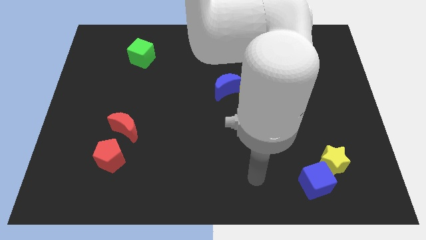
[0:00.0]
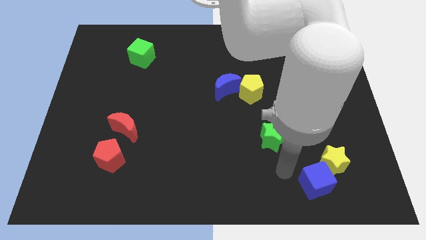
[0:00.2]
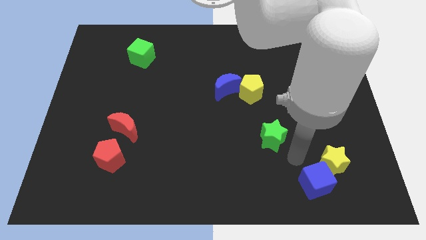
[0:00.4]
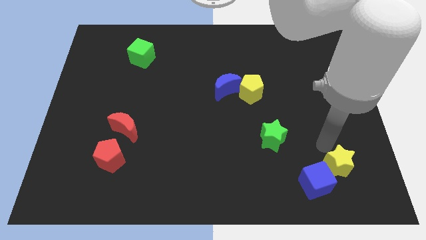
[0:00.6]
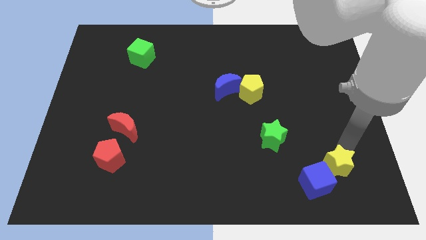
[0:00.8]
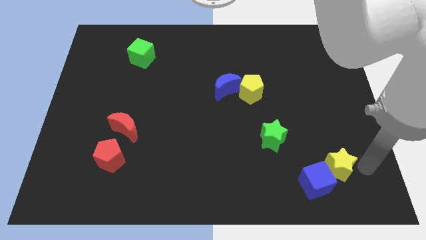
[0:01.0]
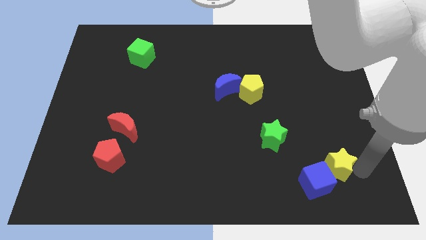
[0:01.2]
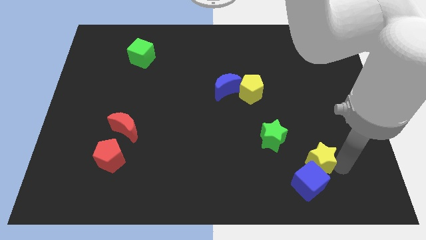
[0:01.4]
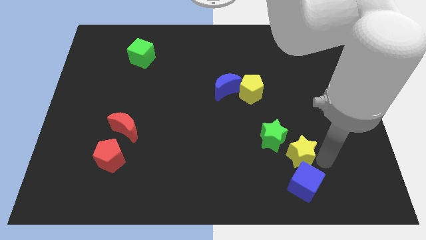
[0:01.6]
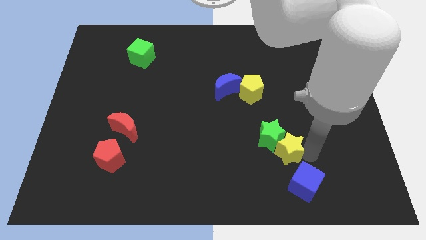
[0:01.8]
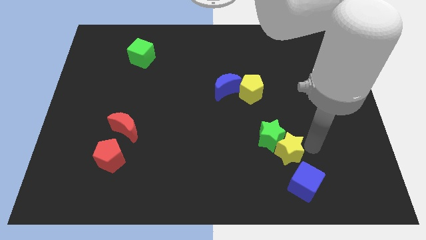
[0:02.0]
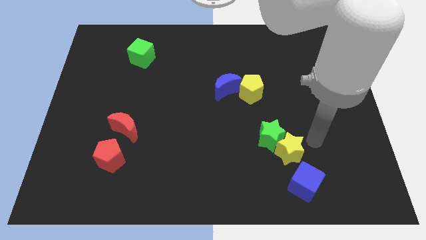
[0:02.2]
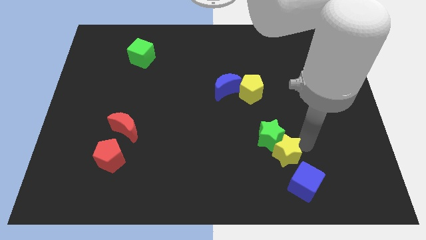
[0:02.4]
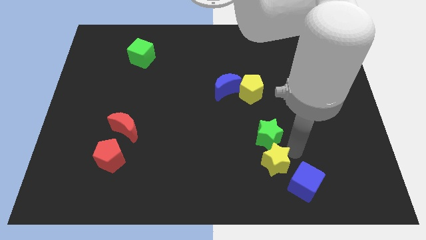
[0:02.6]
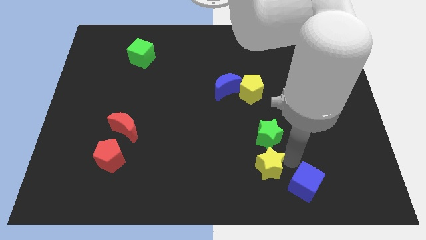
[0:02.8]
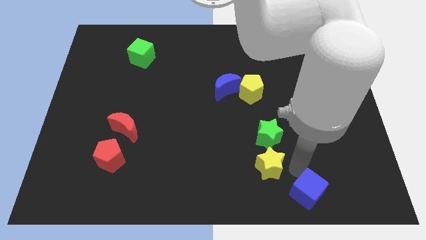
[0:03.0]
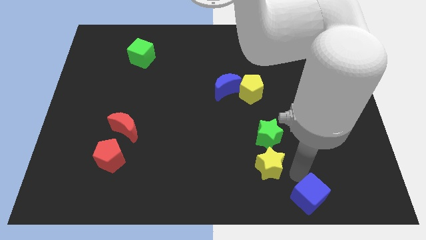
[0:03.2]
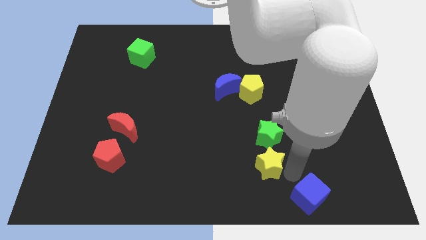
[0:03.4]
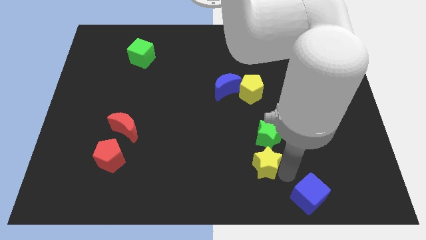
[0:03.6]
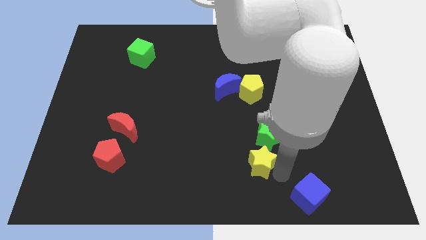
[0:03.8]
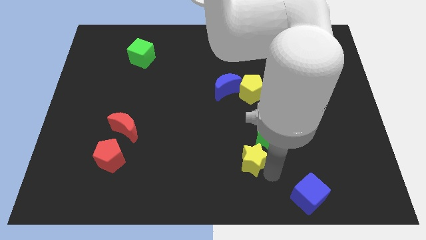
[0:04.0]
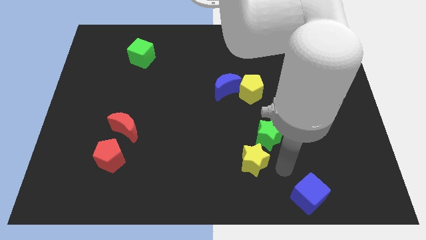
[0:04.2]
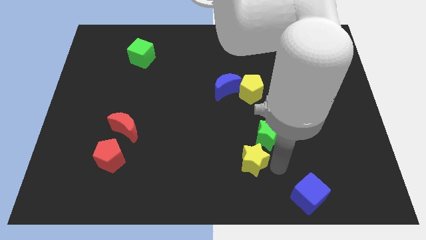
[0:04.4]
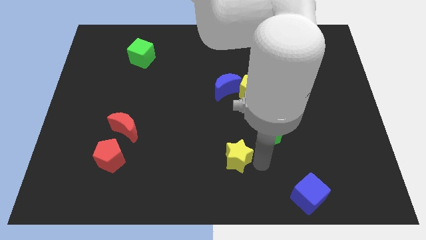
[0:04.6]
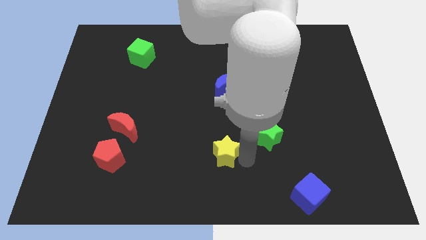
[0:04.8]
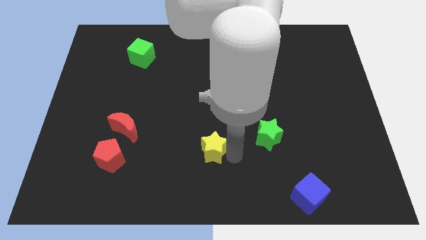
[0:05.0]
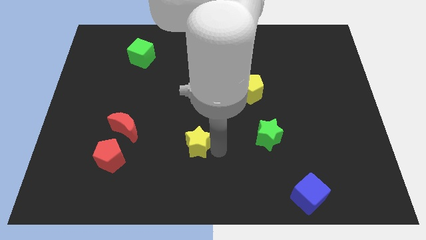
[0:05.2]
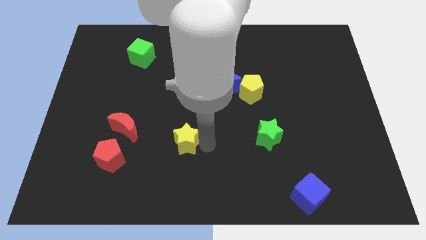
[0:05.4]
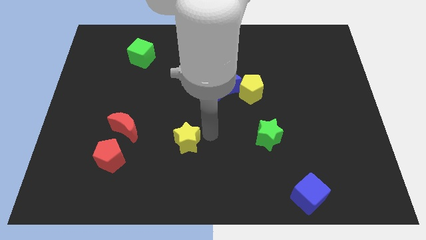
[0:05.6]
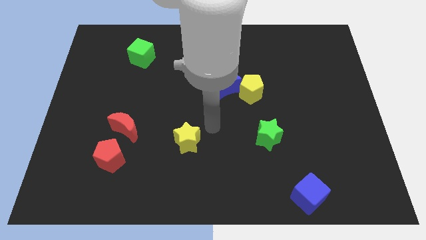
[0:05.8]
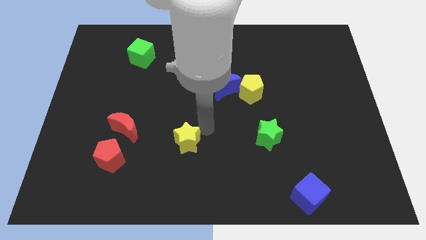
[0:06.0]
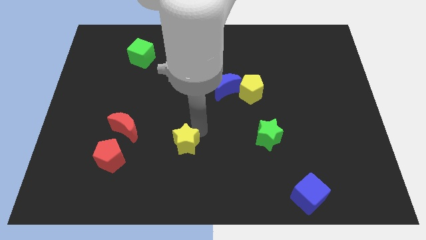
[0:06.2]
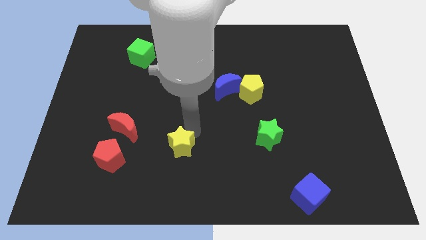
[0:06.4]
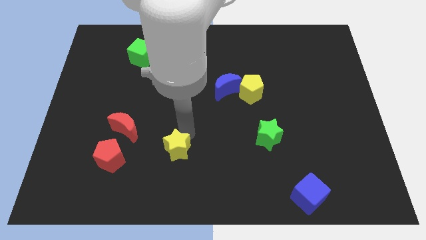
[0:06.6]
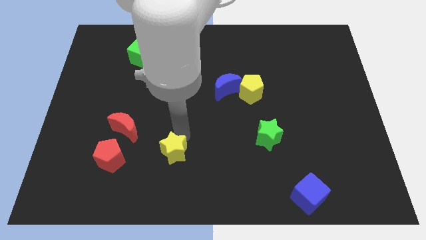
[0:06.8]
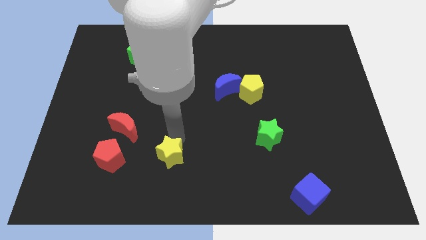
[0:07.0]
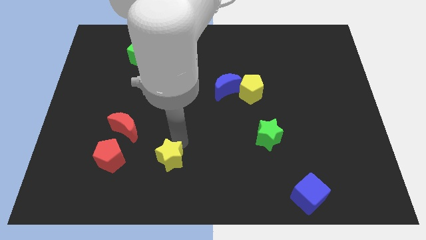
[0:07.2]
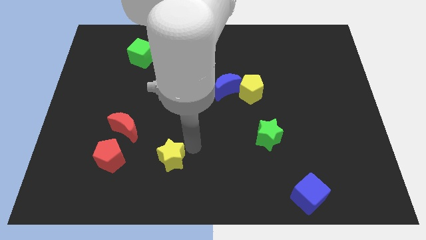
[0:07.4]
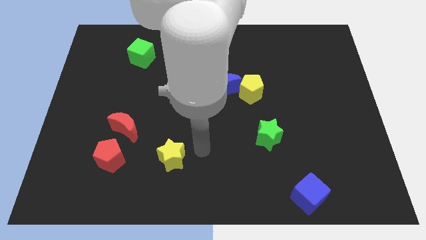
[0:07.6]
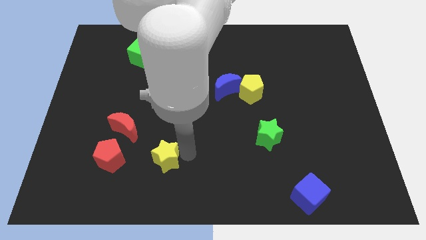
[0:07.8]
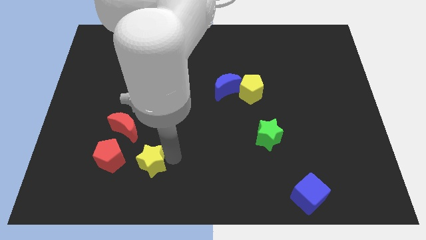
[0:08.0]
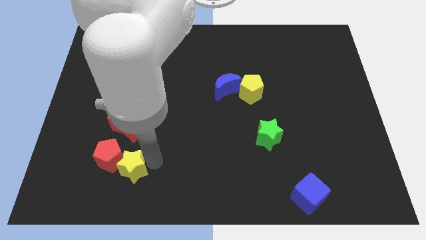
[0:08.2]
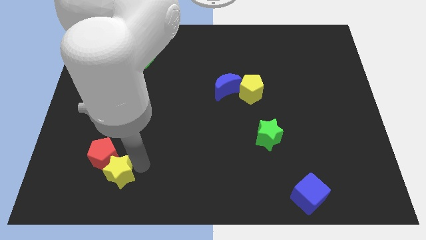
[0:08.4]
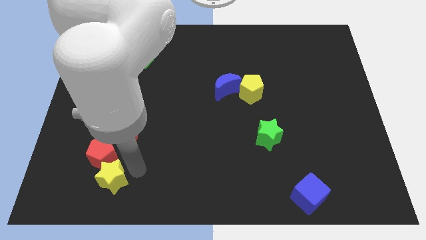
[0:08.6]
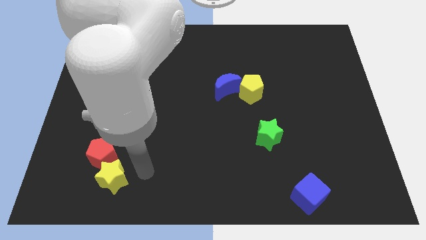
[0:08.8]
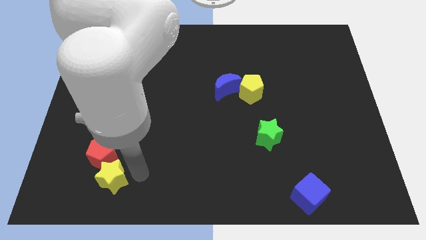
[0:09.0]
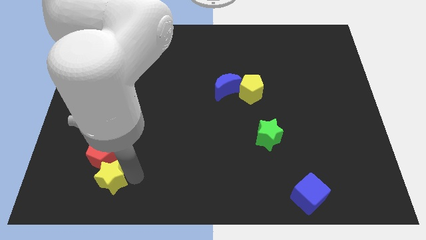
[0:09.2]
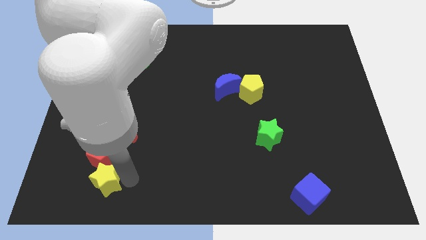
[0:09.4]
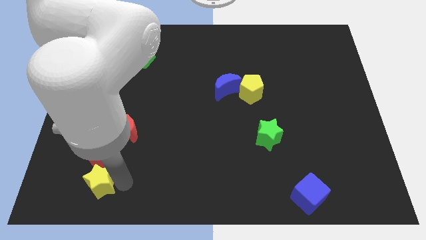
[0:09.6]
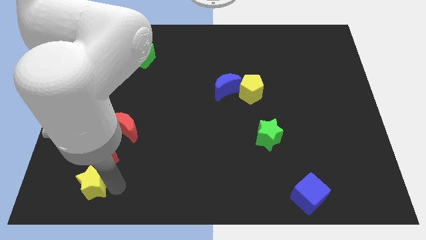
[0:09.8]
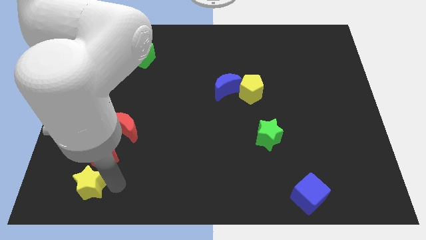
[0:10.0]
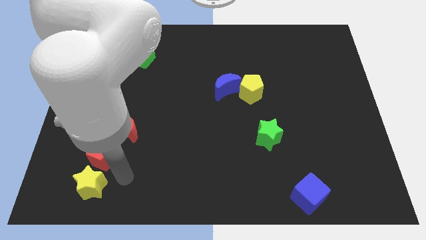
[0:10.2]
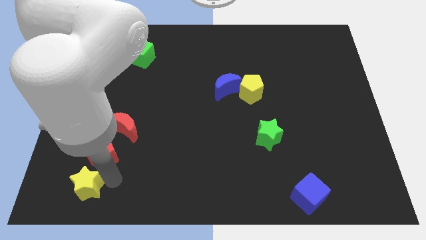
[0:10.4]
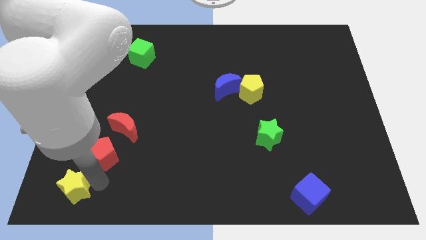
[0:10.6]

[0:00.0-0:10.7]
move the yellow star to the bottom left of the board
